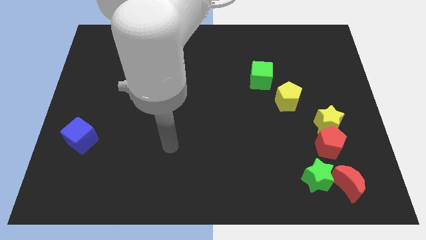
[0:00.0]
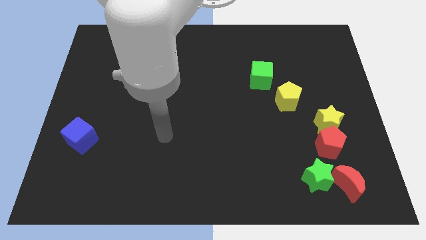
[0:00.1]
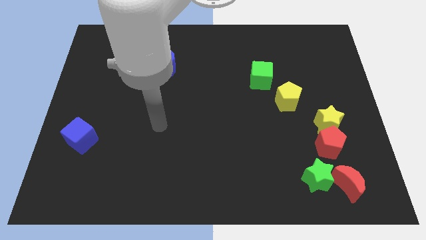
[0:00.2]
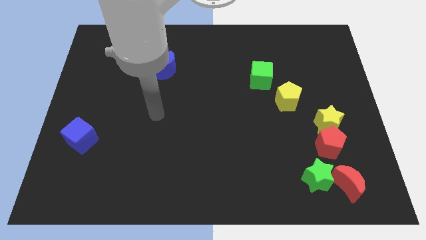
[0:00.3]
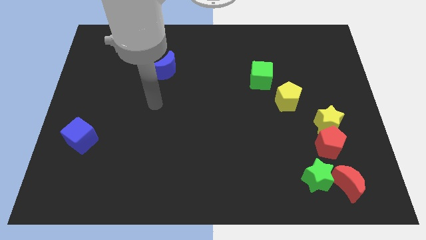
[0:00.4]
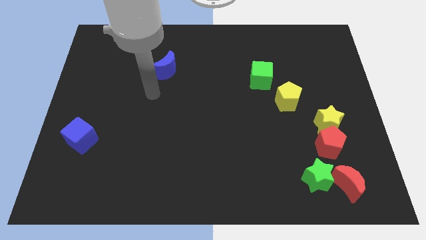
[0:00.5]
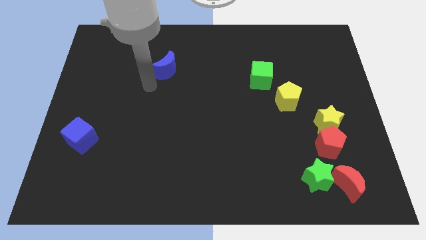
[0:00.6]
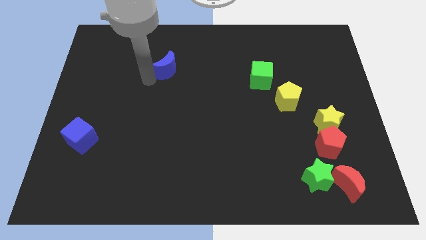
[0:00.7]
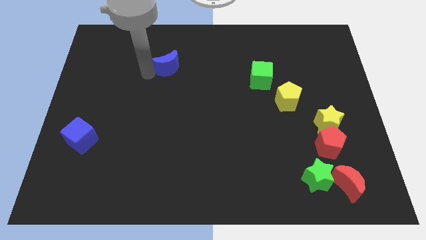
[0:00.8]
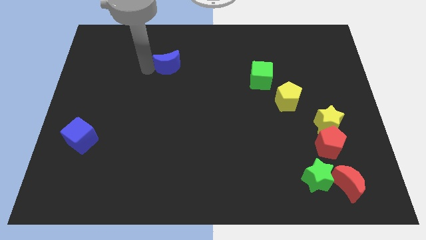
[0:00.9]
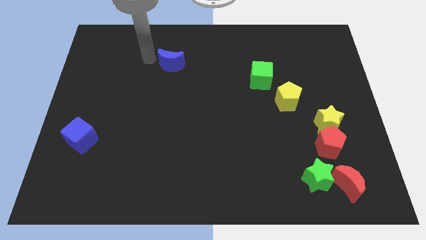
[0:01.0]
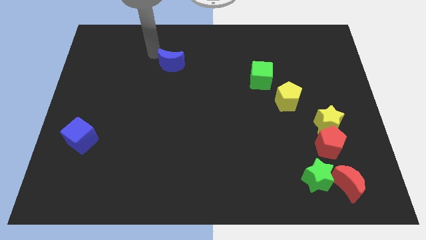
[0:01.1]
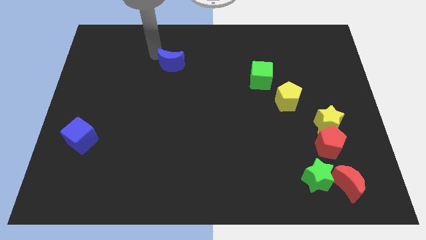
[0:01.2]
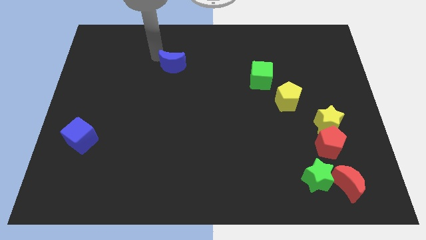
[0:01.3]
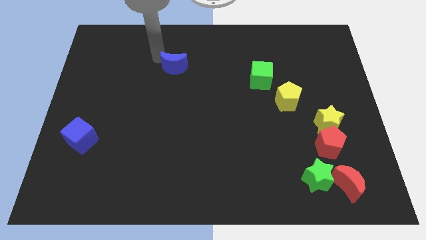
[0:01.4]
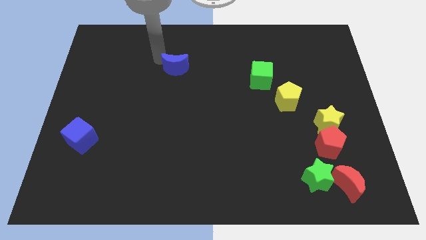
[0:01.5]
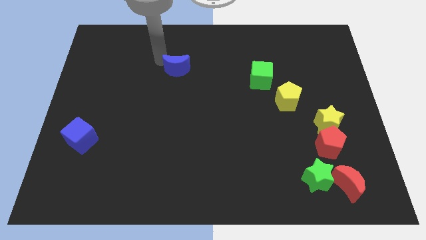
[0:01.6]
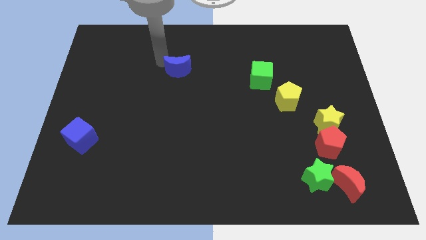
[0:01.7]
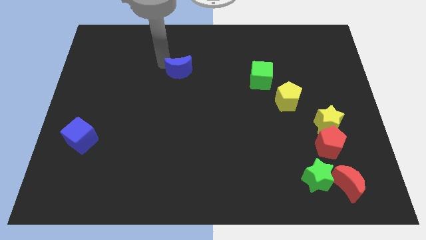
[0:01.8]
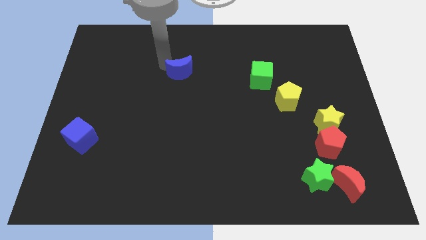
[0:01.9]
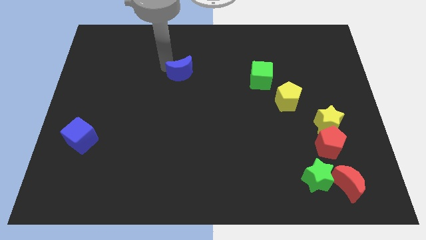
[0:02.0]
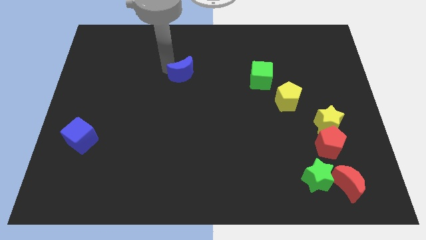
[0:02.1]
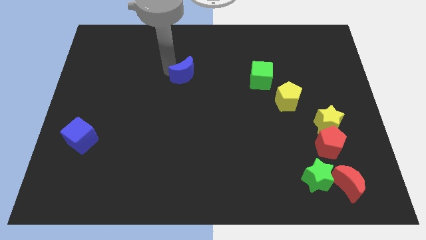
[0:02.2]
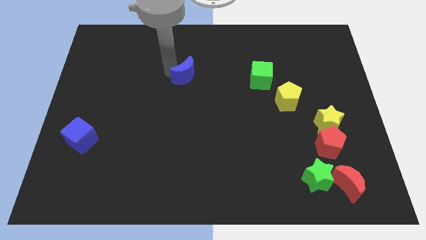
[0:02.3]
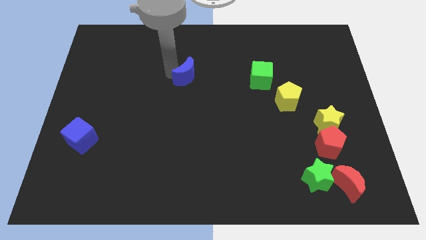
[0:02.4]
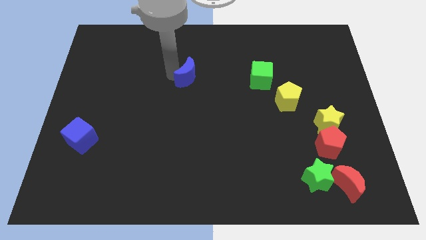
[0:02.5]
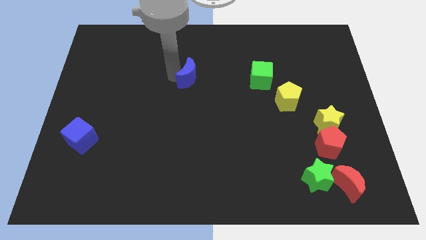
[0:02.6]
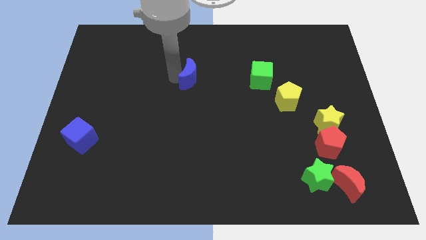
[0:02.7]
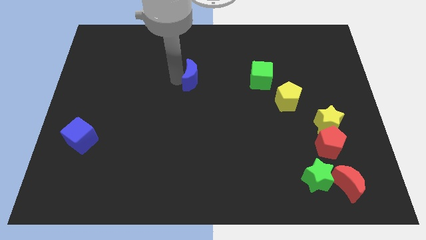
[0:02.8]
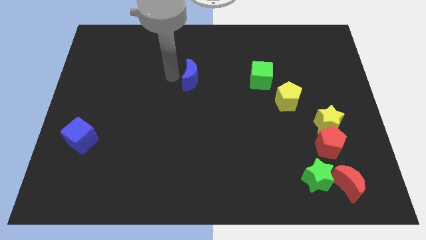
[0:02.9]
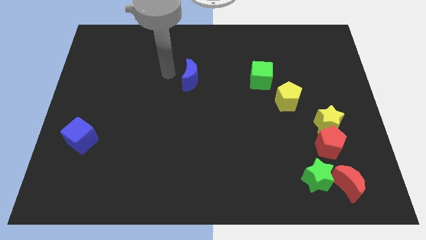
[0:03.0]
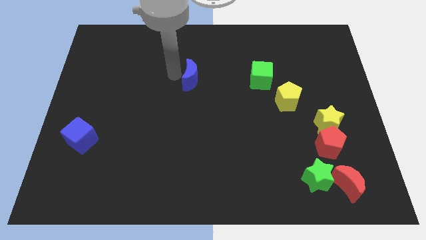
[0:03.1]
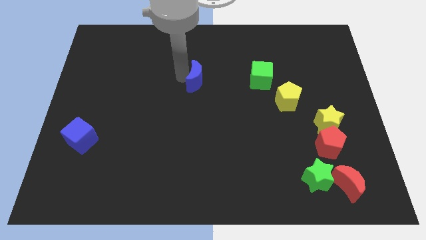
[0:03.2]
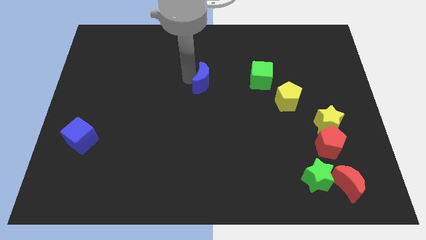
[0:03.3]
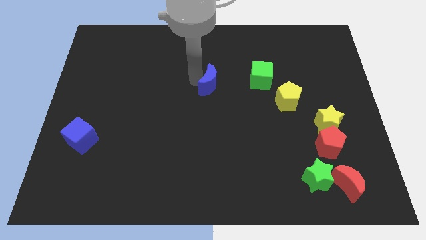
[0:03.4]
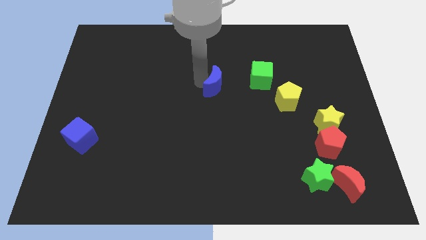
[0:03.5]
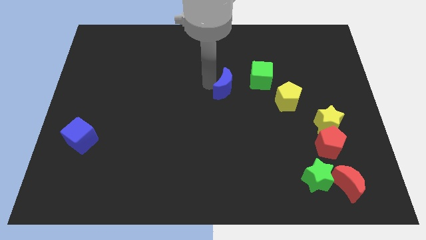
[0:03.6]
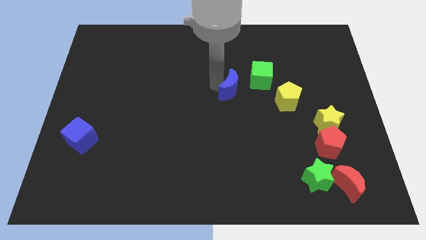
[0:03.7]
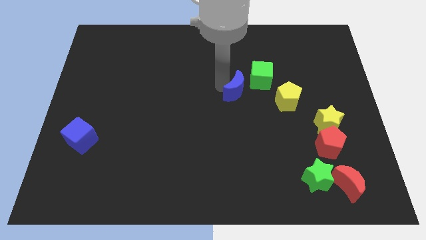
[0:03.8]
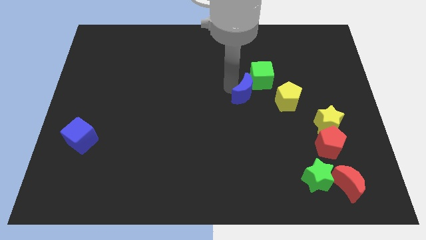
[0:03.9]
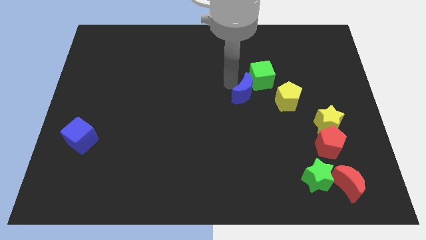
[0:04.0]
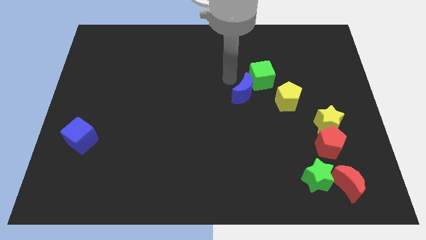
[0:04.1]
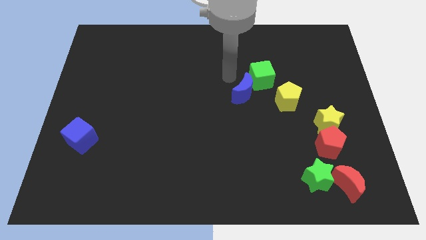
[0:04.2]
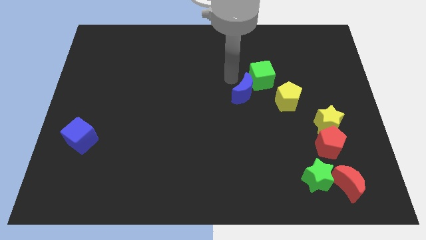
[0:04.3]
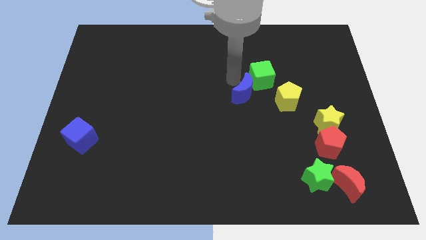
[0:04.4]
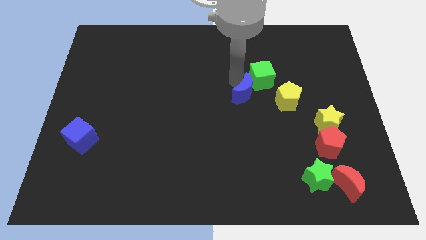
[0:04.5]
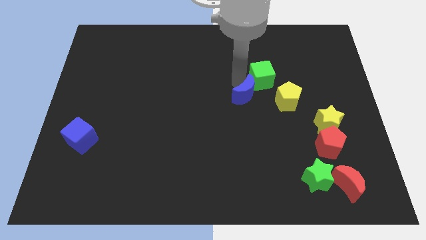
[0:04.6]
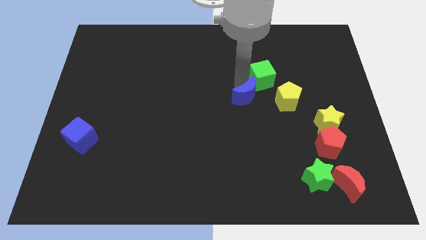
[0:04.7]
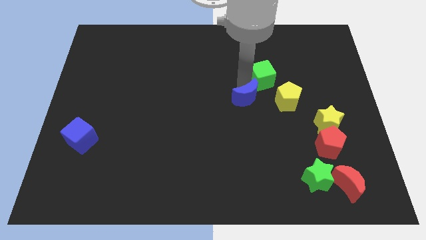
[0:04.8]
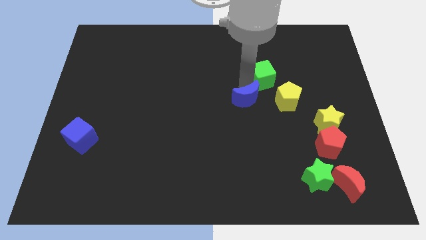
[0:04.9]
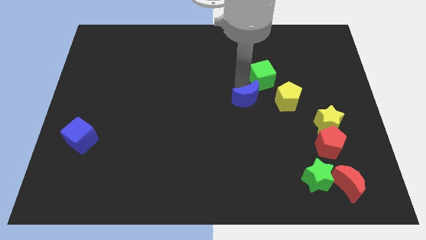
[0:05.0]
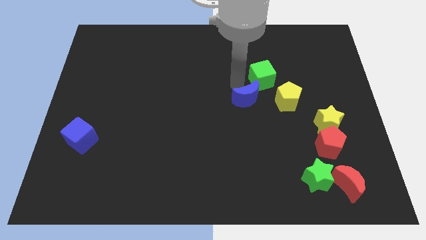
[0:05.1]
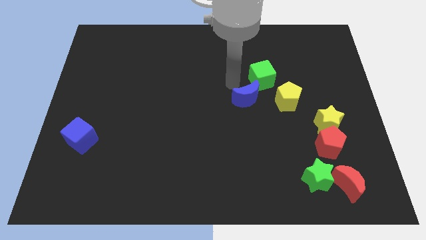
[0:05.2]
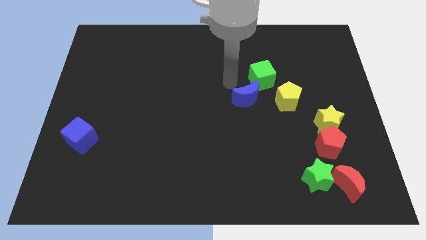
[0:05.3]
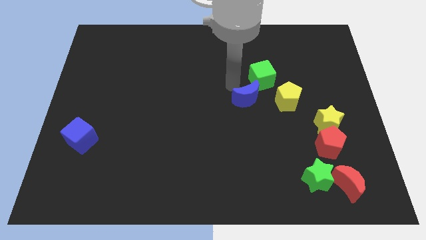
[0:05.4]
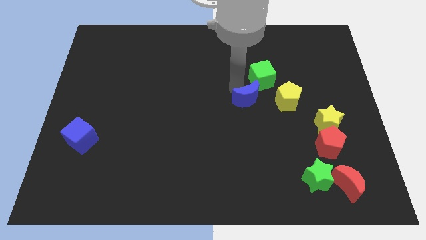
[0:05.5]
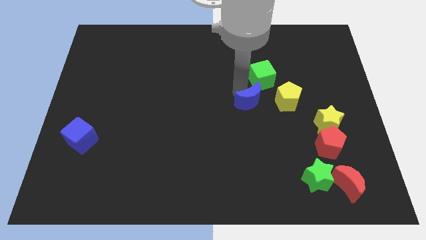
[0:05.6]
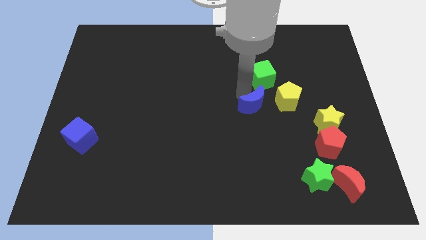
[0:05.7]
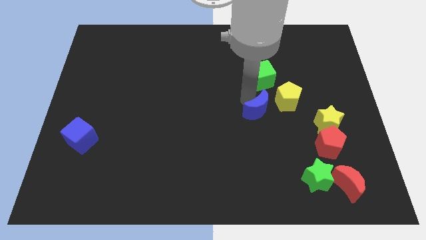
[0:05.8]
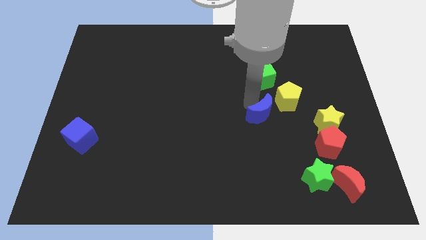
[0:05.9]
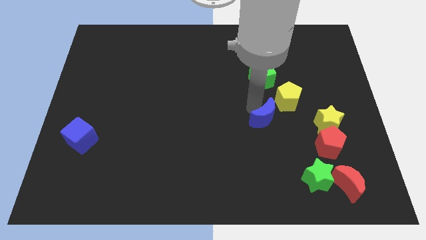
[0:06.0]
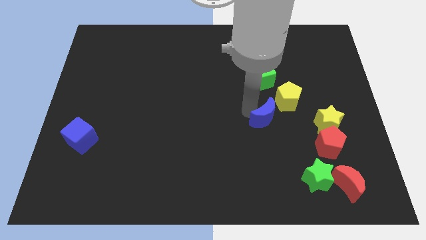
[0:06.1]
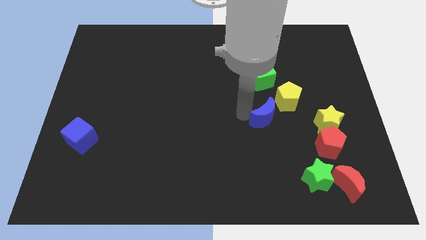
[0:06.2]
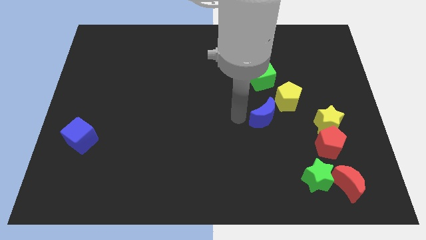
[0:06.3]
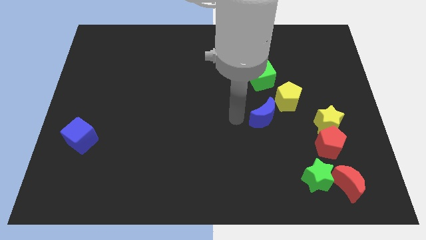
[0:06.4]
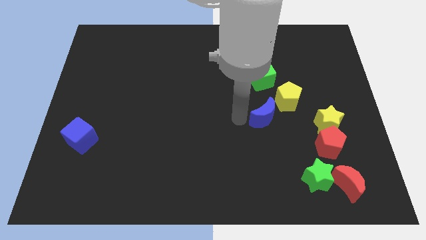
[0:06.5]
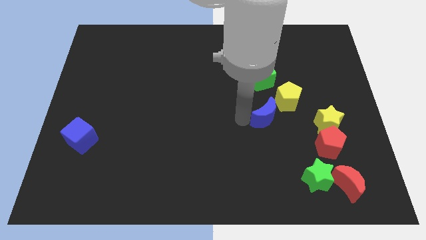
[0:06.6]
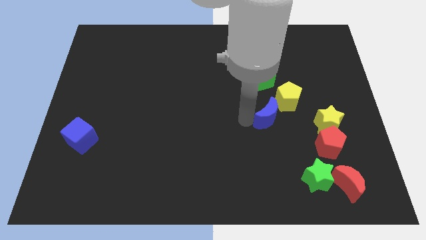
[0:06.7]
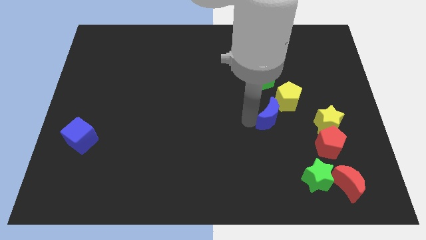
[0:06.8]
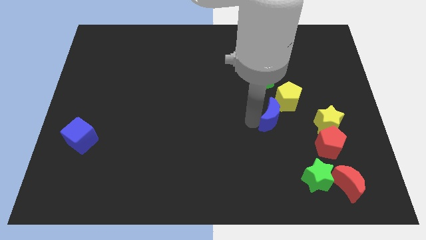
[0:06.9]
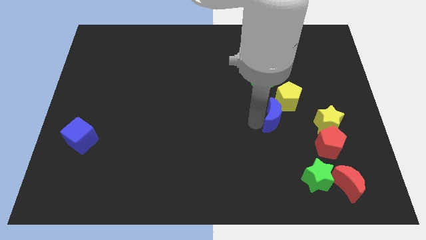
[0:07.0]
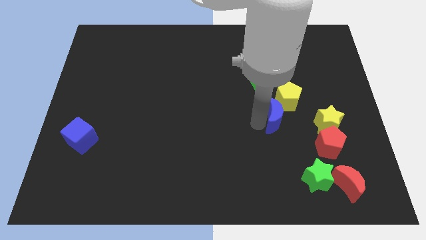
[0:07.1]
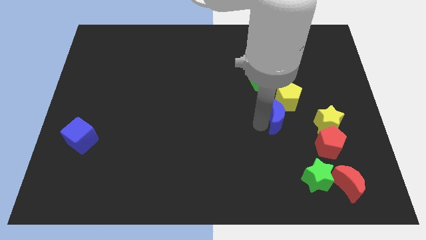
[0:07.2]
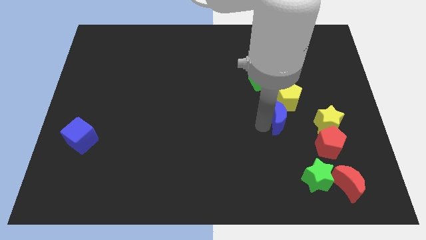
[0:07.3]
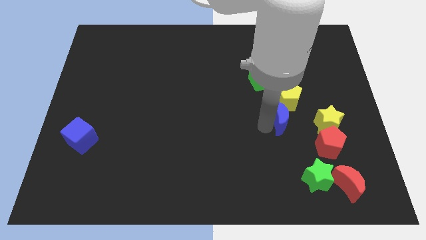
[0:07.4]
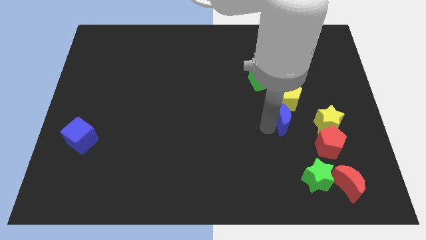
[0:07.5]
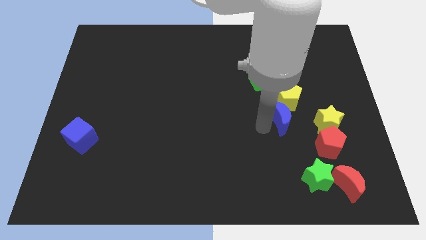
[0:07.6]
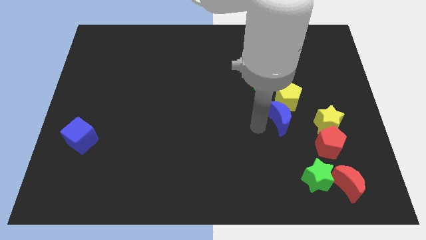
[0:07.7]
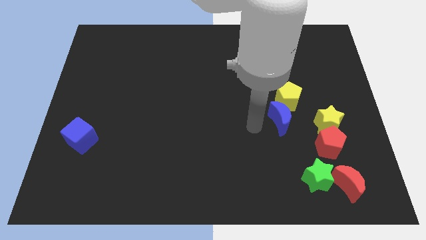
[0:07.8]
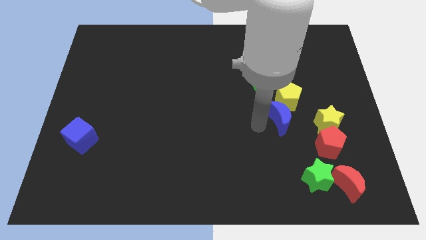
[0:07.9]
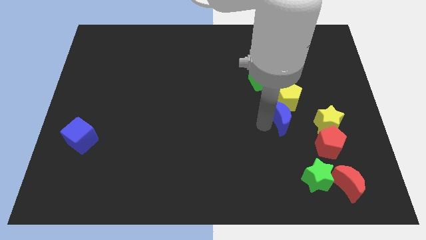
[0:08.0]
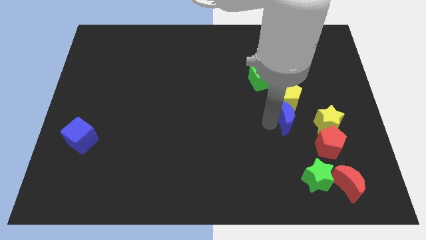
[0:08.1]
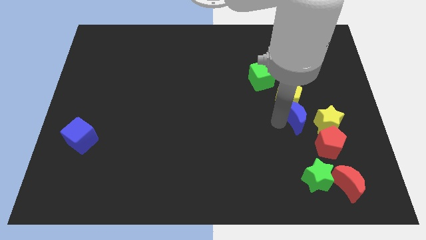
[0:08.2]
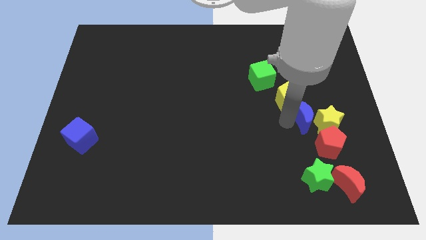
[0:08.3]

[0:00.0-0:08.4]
move the blue moon to the top side of the red pentagon

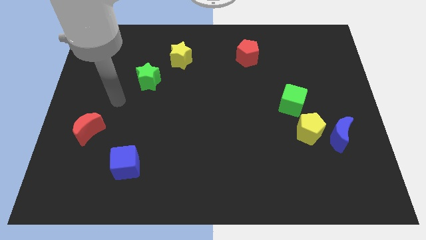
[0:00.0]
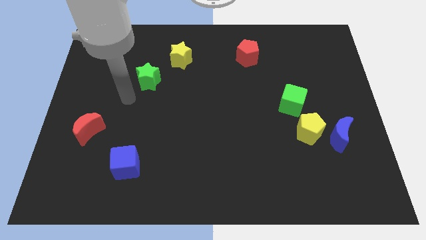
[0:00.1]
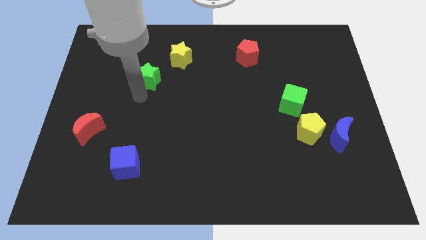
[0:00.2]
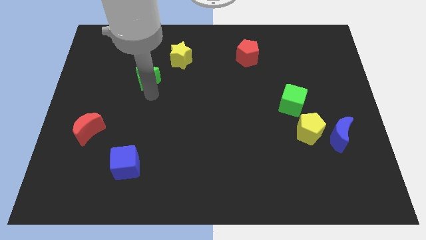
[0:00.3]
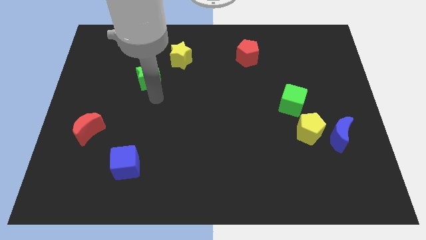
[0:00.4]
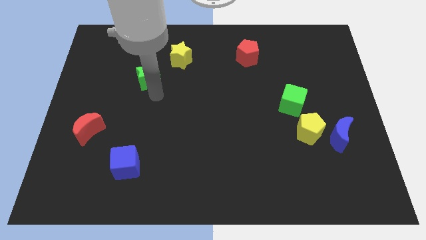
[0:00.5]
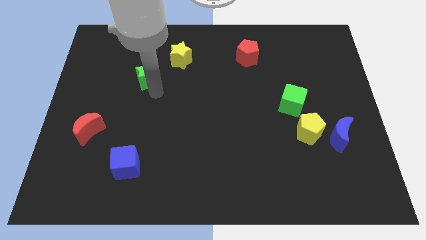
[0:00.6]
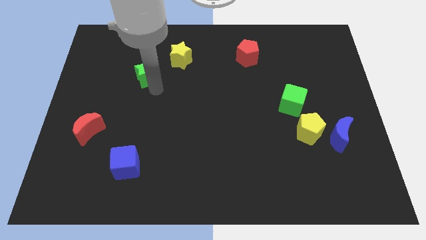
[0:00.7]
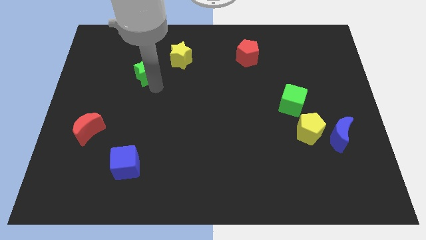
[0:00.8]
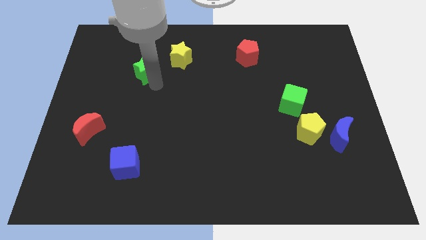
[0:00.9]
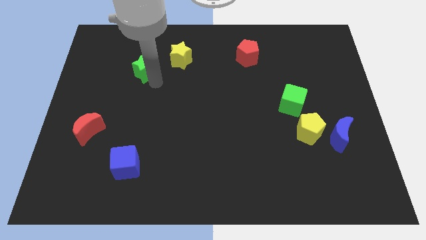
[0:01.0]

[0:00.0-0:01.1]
slide the green star just left of the yellow star
